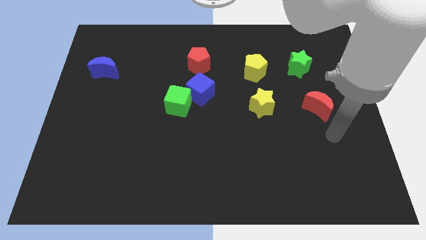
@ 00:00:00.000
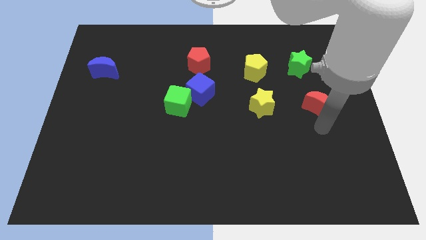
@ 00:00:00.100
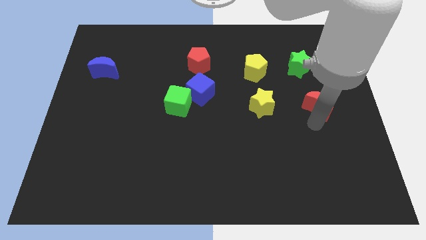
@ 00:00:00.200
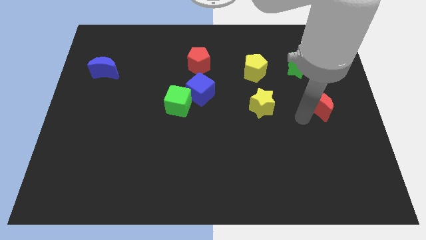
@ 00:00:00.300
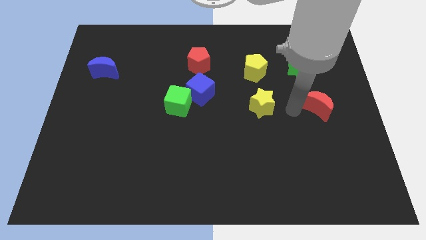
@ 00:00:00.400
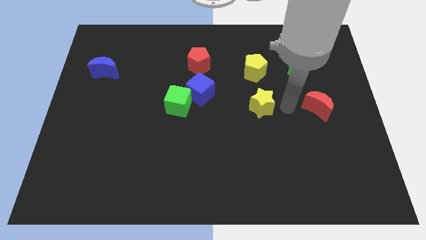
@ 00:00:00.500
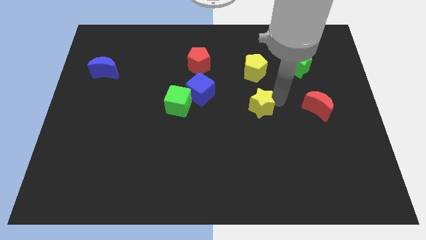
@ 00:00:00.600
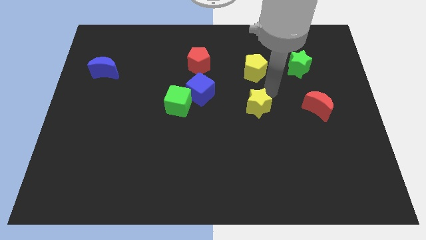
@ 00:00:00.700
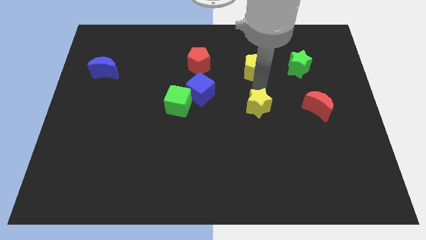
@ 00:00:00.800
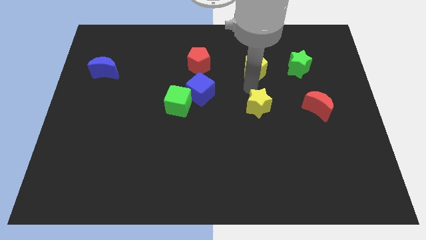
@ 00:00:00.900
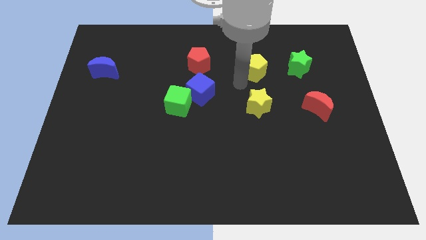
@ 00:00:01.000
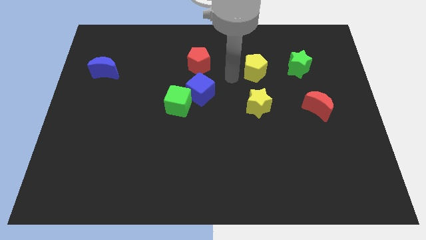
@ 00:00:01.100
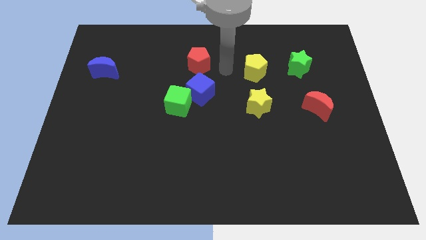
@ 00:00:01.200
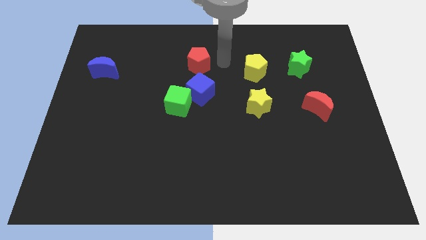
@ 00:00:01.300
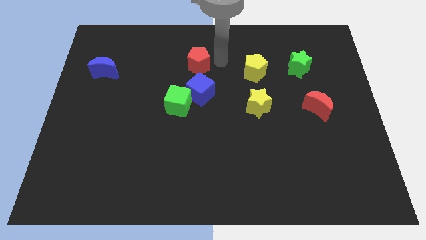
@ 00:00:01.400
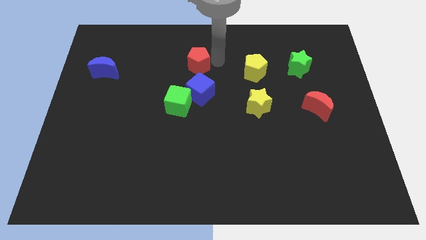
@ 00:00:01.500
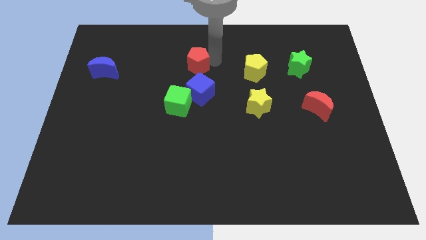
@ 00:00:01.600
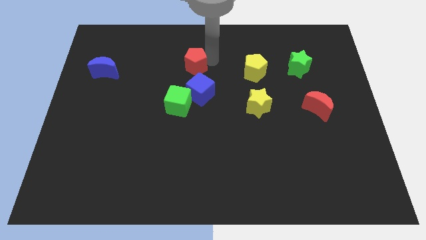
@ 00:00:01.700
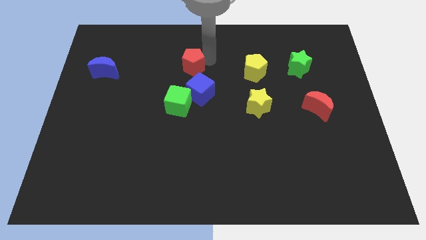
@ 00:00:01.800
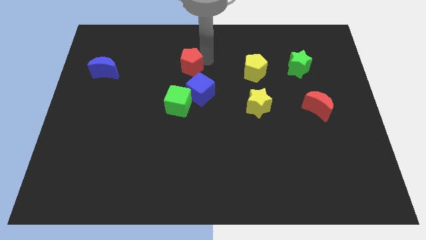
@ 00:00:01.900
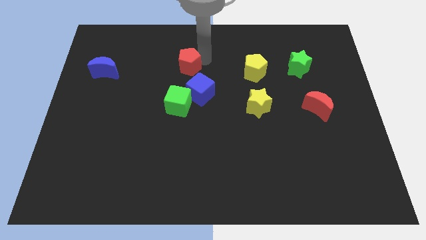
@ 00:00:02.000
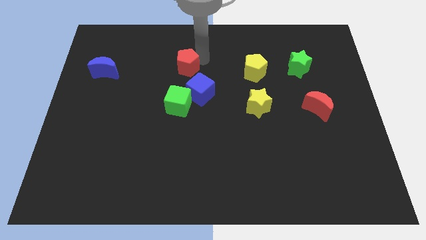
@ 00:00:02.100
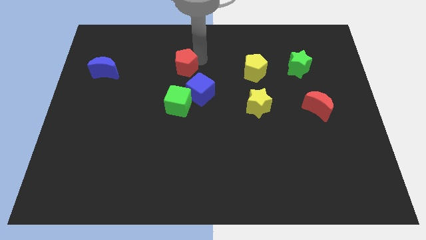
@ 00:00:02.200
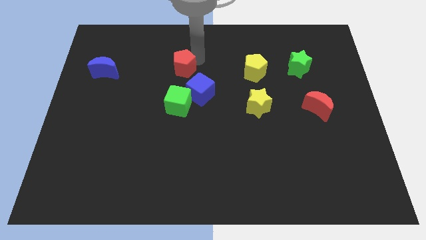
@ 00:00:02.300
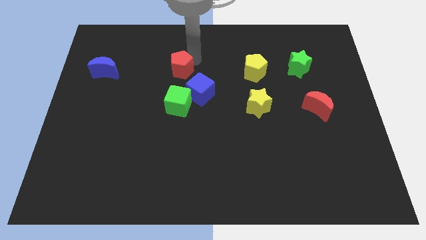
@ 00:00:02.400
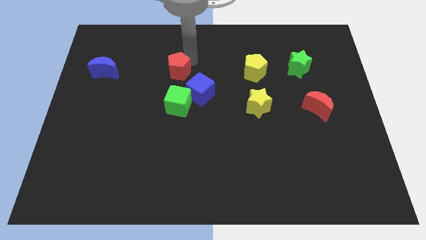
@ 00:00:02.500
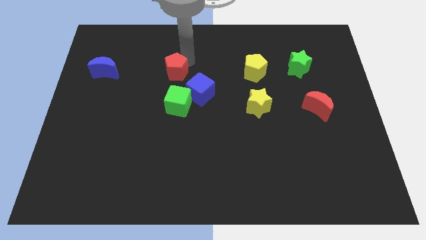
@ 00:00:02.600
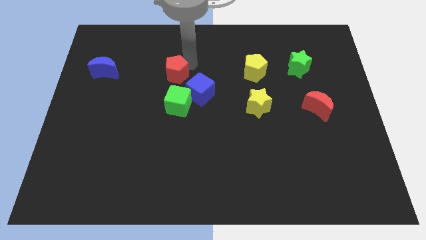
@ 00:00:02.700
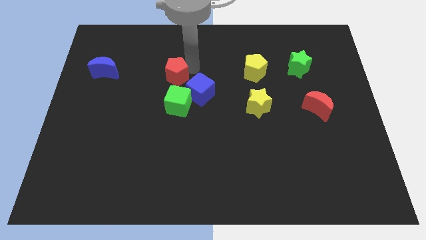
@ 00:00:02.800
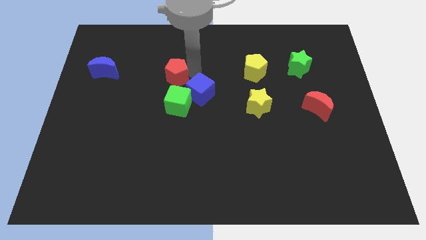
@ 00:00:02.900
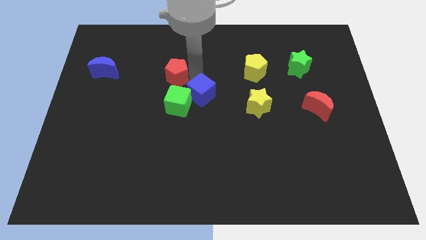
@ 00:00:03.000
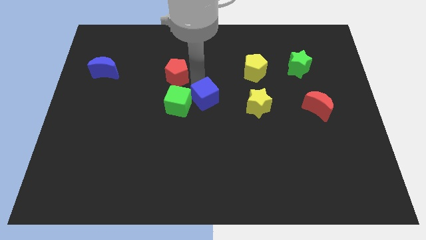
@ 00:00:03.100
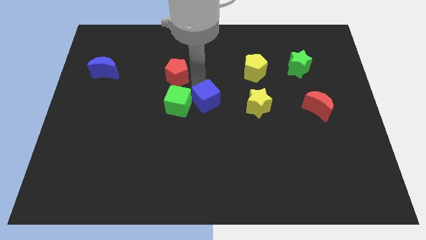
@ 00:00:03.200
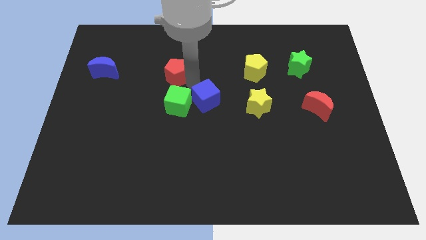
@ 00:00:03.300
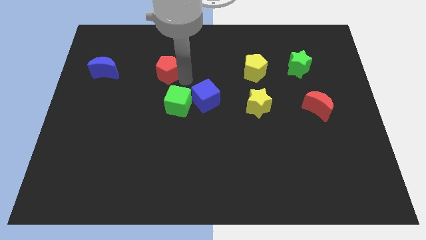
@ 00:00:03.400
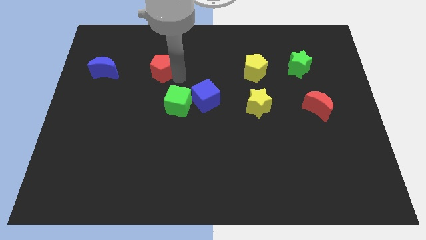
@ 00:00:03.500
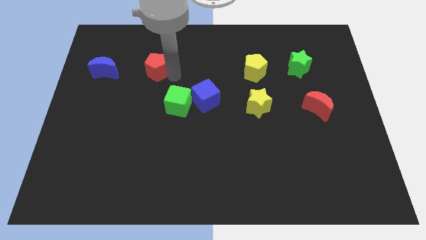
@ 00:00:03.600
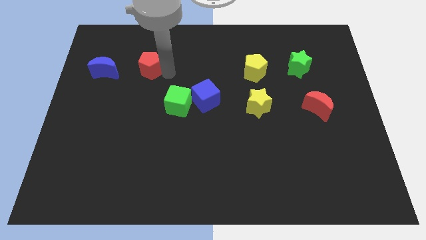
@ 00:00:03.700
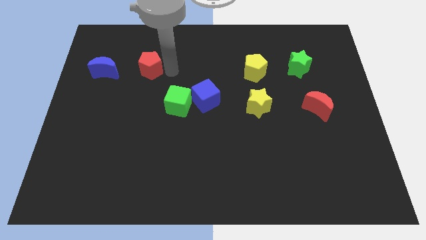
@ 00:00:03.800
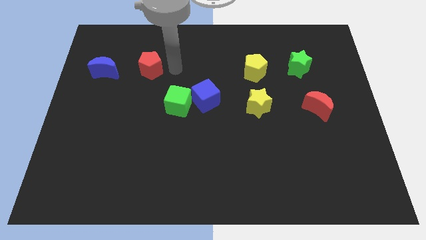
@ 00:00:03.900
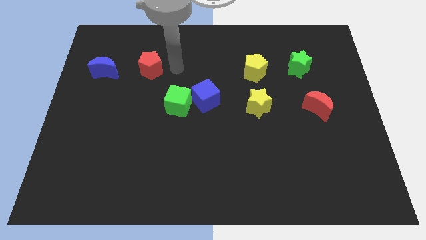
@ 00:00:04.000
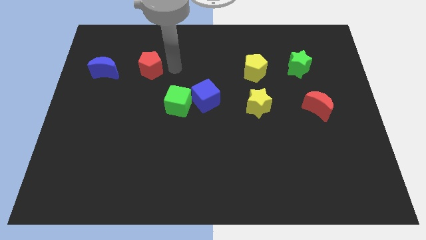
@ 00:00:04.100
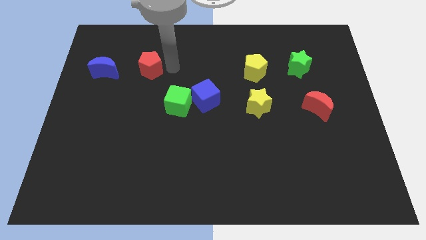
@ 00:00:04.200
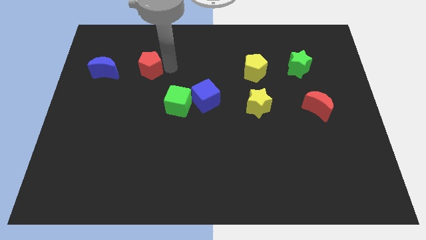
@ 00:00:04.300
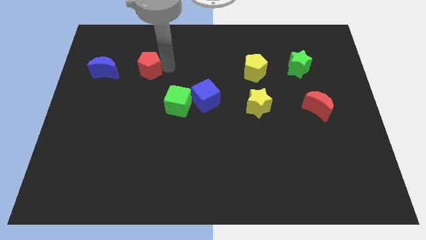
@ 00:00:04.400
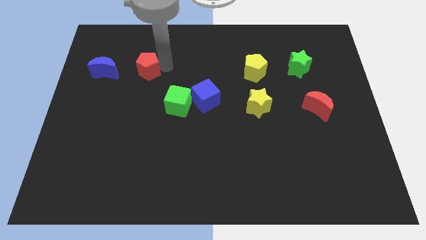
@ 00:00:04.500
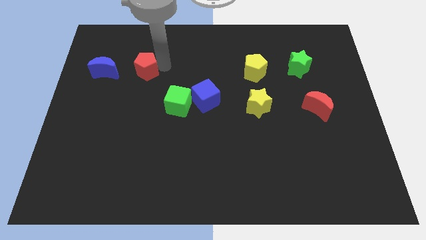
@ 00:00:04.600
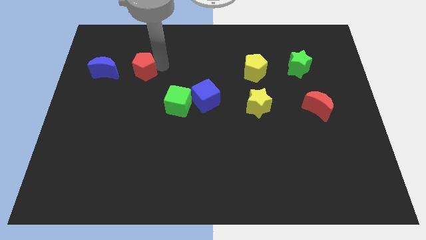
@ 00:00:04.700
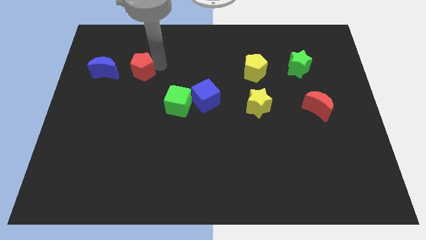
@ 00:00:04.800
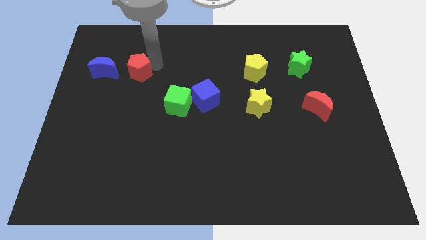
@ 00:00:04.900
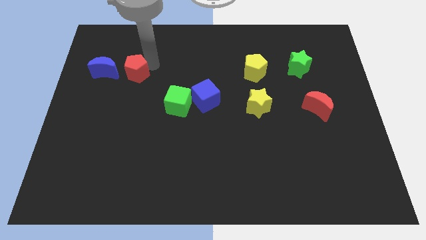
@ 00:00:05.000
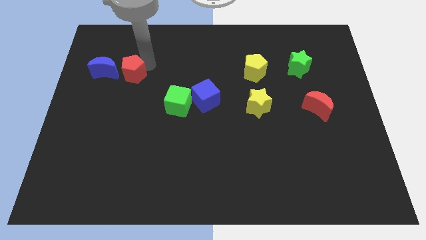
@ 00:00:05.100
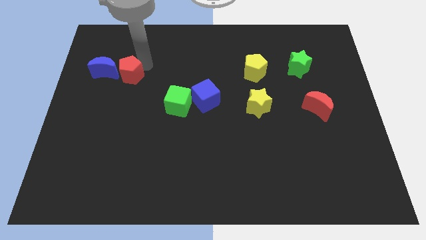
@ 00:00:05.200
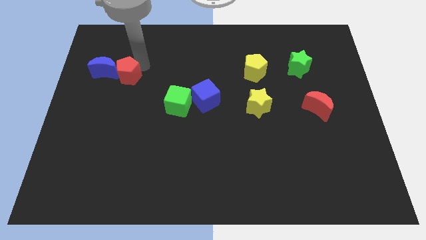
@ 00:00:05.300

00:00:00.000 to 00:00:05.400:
put the red pentagon next to the blue moon

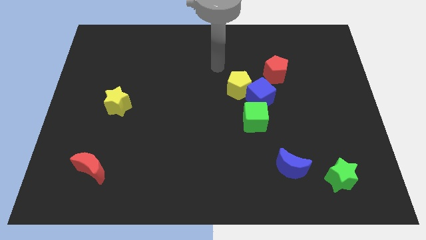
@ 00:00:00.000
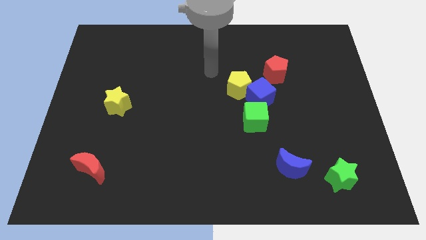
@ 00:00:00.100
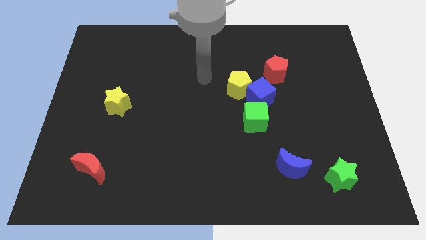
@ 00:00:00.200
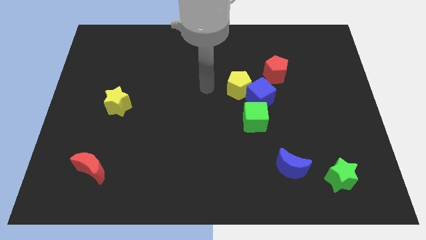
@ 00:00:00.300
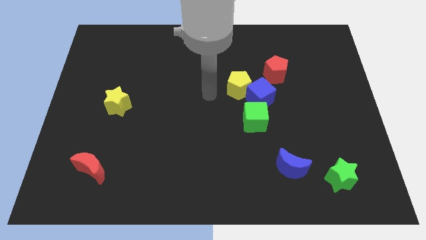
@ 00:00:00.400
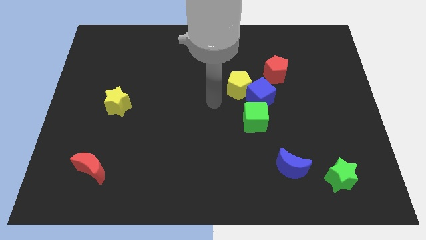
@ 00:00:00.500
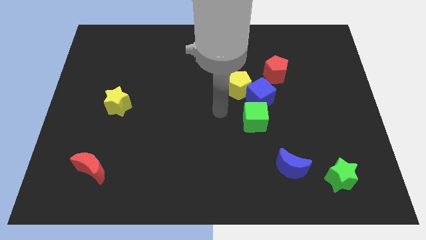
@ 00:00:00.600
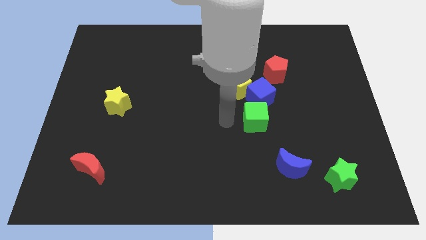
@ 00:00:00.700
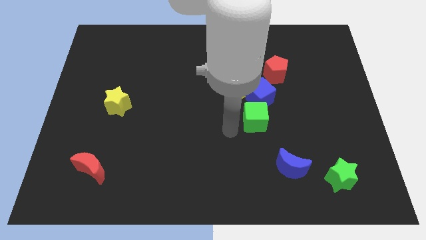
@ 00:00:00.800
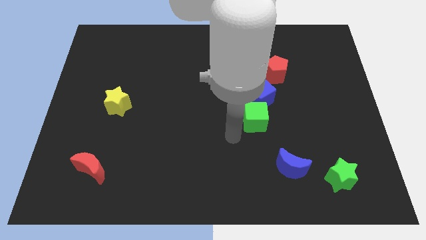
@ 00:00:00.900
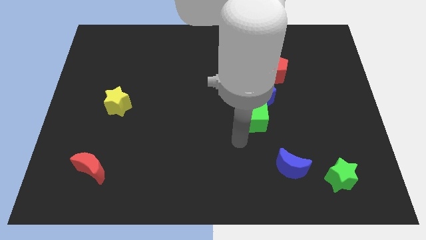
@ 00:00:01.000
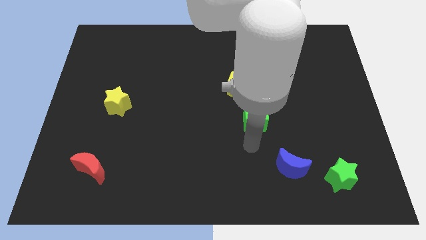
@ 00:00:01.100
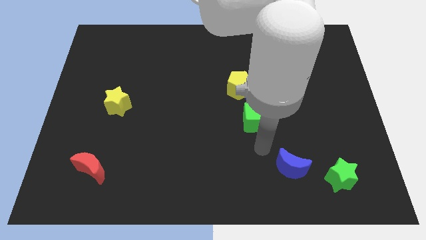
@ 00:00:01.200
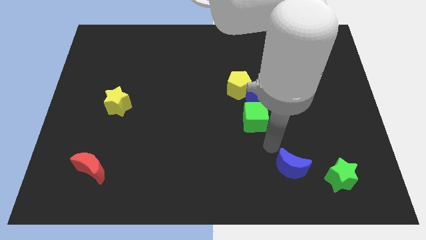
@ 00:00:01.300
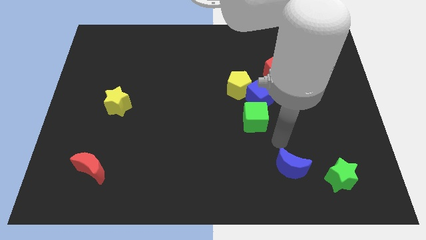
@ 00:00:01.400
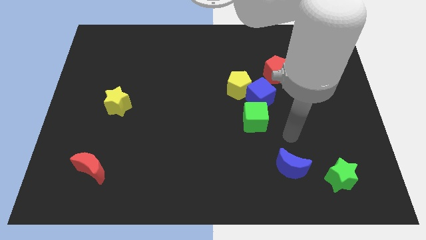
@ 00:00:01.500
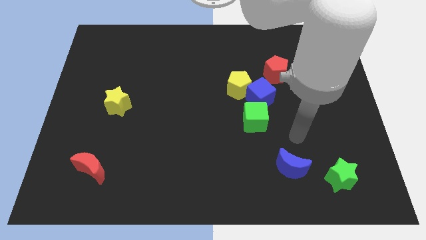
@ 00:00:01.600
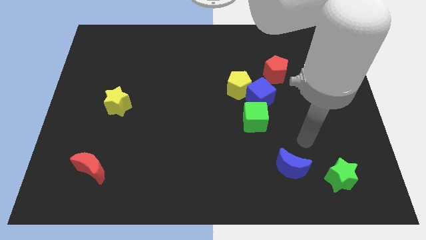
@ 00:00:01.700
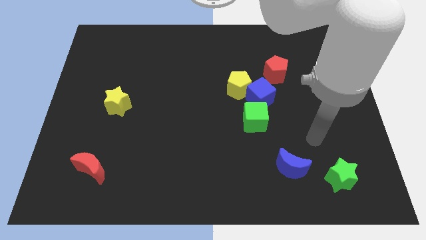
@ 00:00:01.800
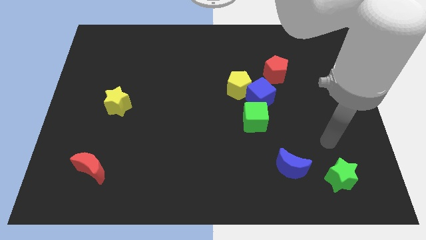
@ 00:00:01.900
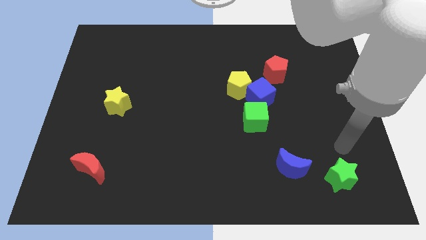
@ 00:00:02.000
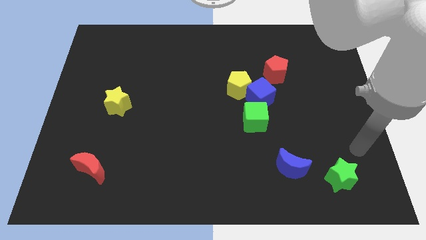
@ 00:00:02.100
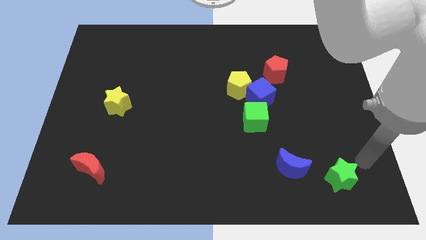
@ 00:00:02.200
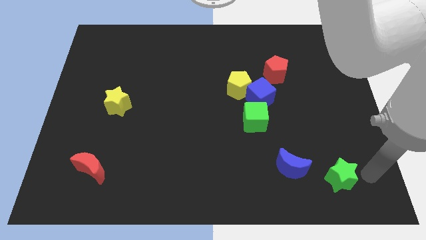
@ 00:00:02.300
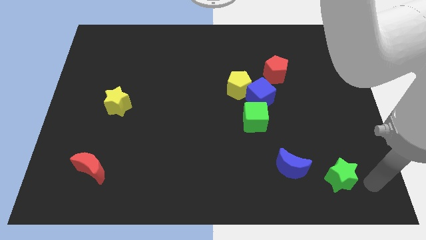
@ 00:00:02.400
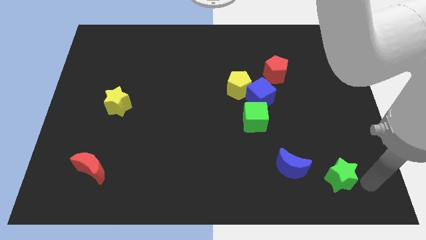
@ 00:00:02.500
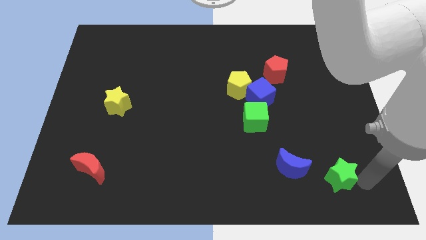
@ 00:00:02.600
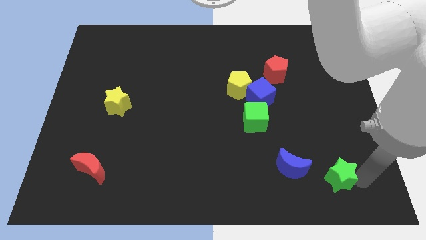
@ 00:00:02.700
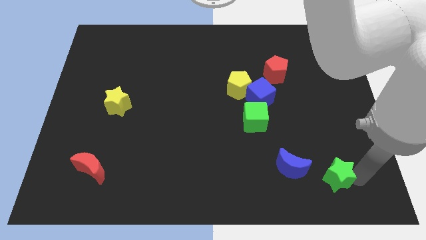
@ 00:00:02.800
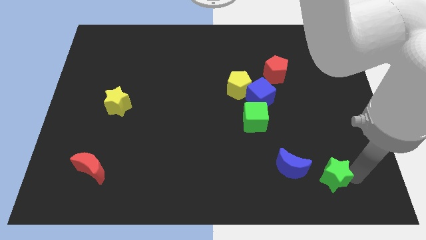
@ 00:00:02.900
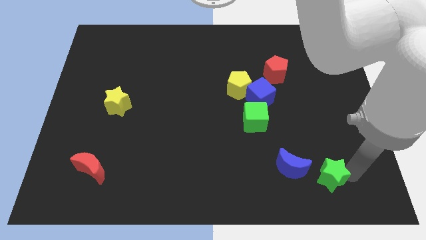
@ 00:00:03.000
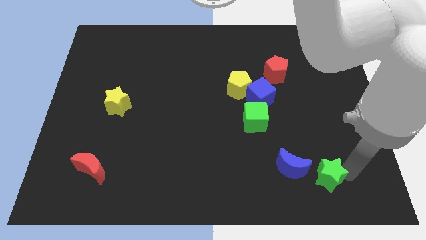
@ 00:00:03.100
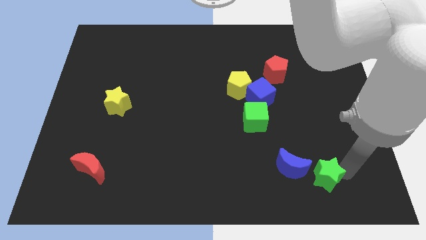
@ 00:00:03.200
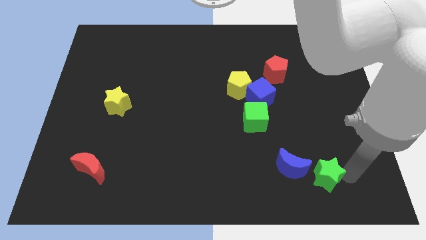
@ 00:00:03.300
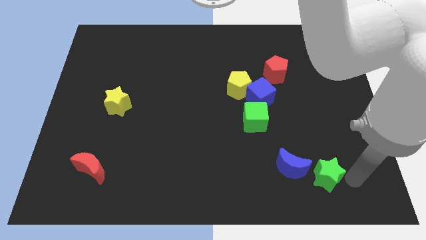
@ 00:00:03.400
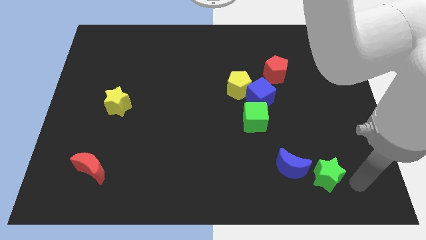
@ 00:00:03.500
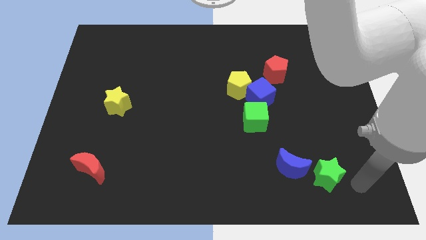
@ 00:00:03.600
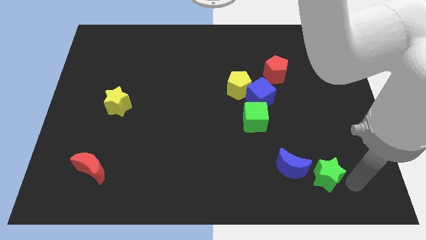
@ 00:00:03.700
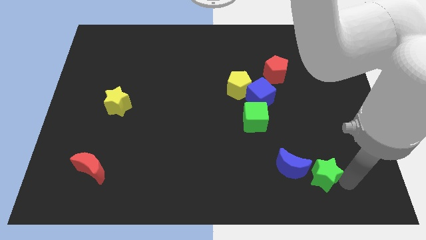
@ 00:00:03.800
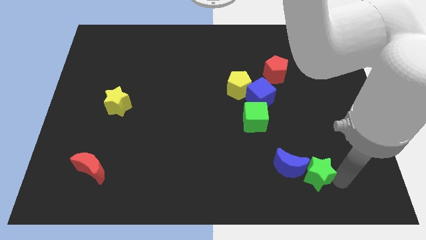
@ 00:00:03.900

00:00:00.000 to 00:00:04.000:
move the green star to the blue moon
